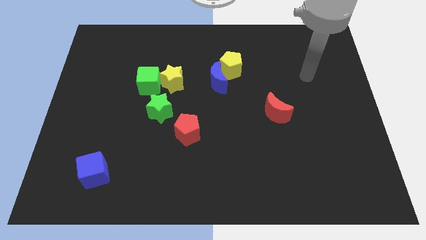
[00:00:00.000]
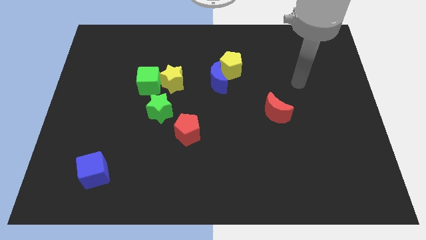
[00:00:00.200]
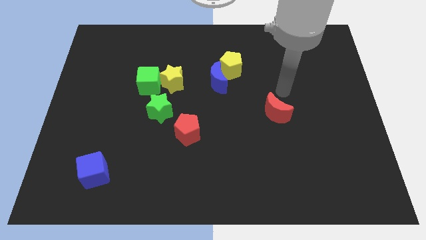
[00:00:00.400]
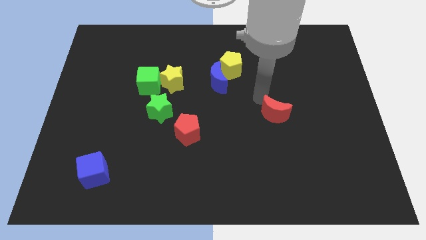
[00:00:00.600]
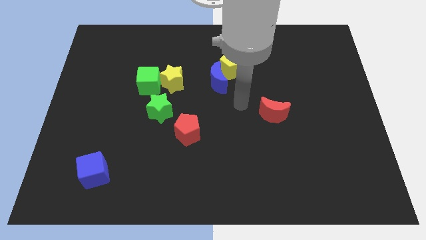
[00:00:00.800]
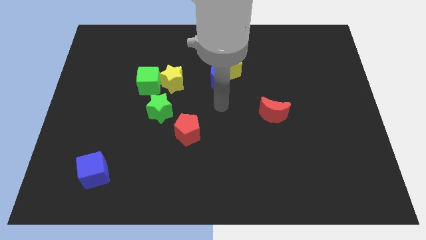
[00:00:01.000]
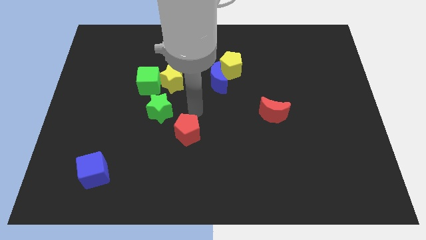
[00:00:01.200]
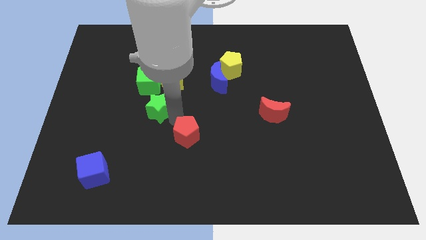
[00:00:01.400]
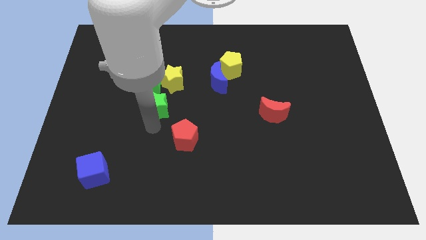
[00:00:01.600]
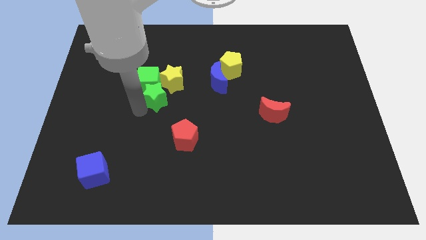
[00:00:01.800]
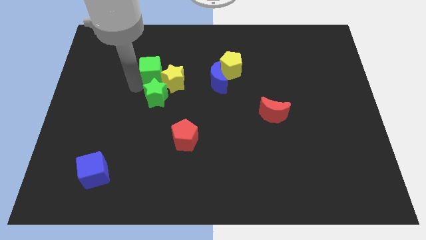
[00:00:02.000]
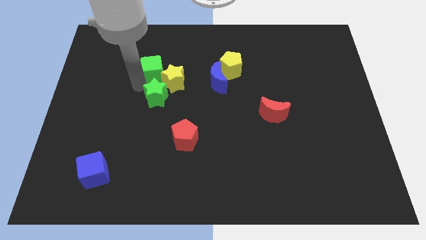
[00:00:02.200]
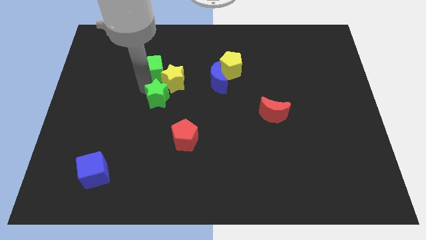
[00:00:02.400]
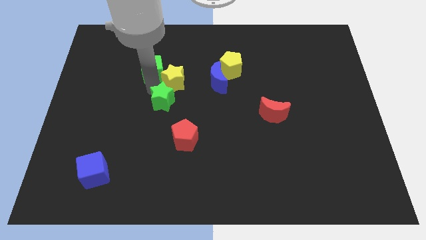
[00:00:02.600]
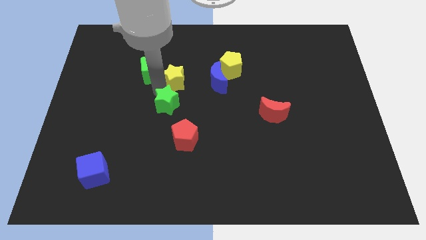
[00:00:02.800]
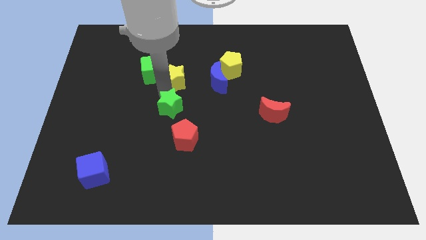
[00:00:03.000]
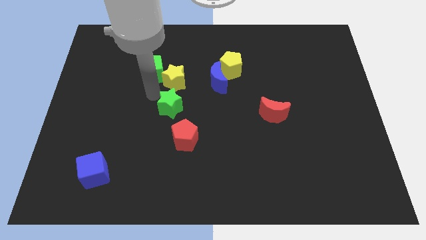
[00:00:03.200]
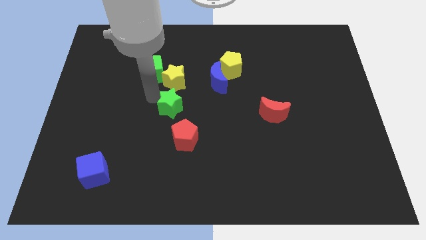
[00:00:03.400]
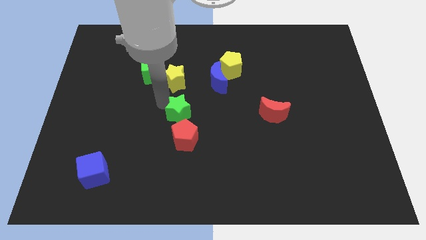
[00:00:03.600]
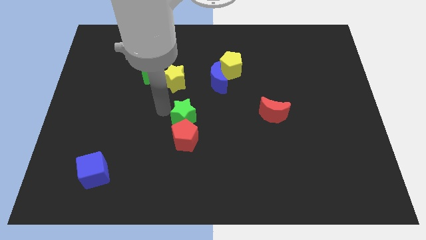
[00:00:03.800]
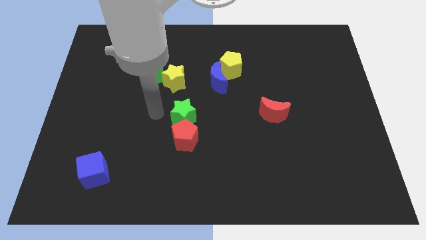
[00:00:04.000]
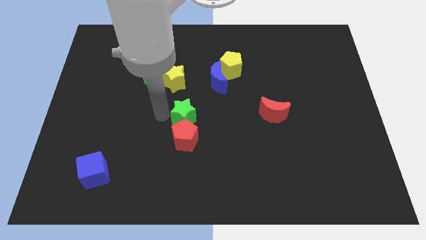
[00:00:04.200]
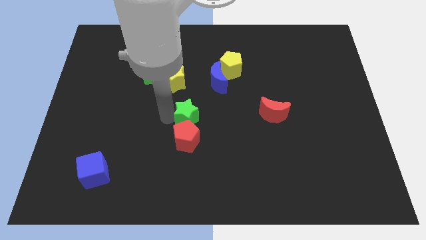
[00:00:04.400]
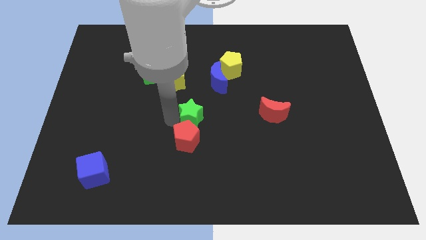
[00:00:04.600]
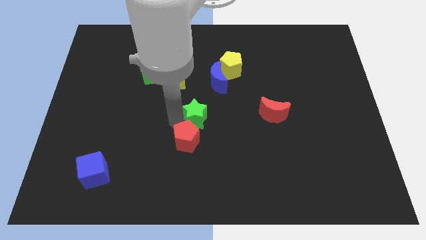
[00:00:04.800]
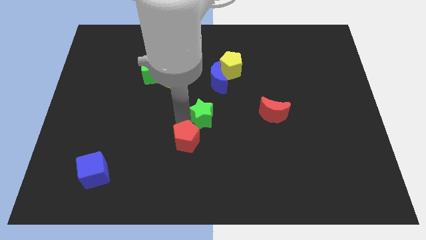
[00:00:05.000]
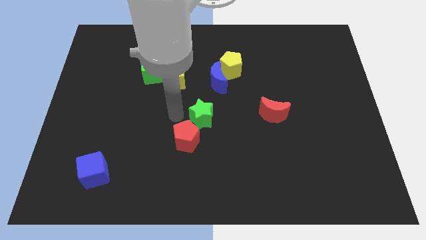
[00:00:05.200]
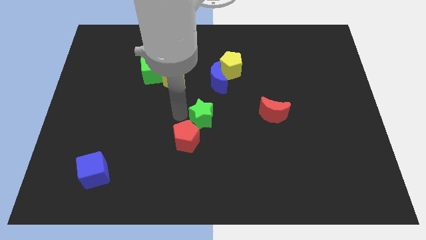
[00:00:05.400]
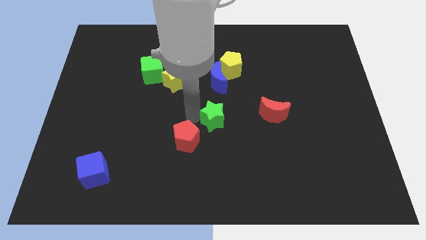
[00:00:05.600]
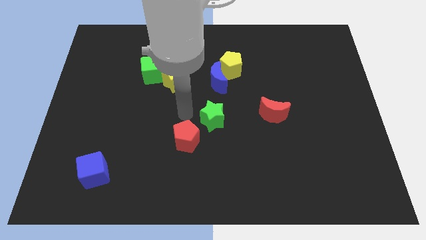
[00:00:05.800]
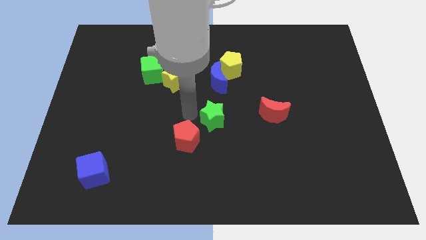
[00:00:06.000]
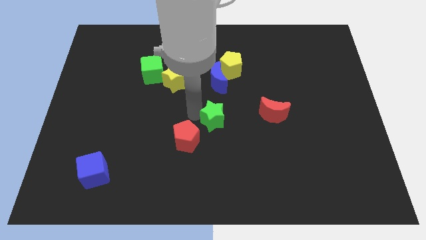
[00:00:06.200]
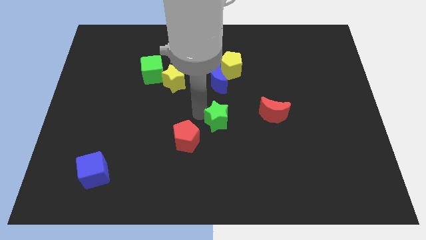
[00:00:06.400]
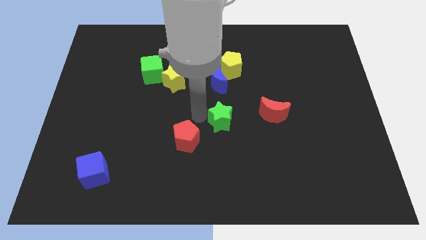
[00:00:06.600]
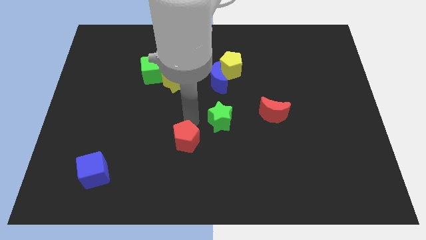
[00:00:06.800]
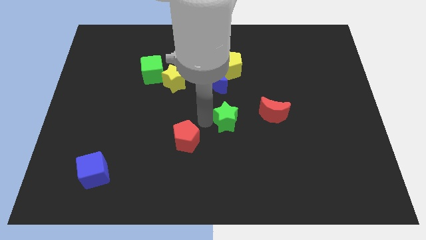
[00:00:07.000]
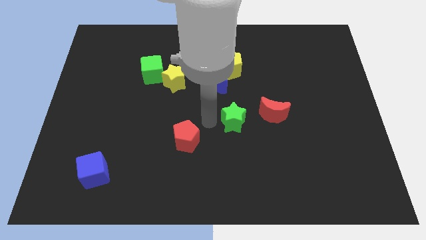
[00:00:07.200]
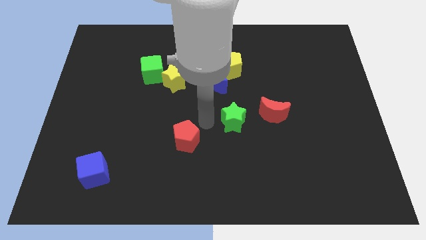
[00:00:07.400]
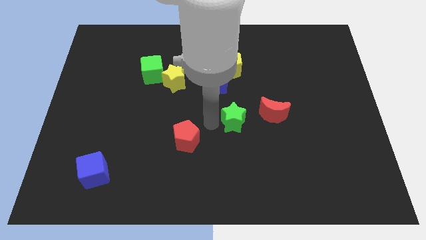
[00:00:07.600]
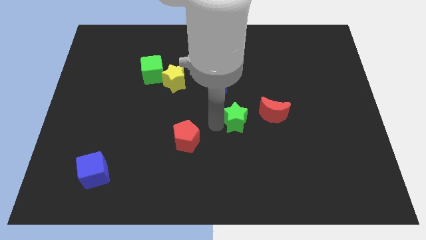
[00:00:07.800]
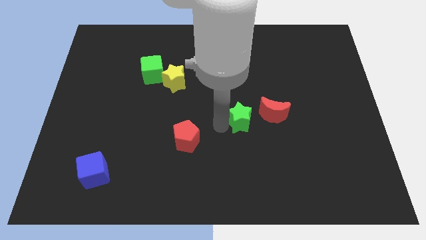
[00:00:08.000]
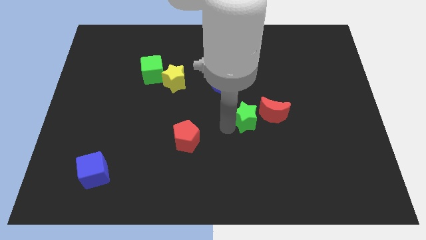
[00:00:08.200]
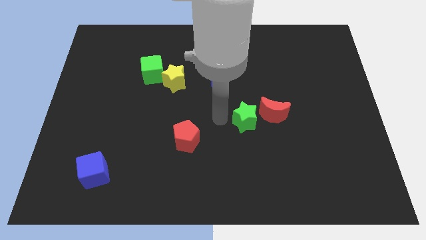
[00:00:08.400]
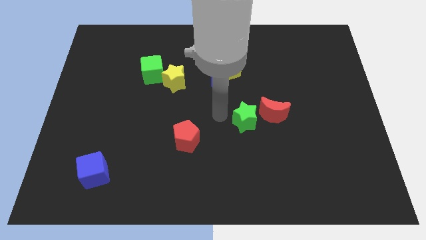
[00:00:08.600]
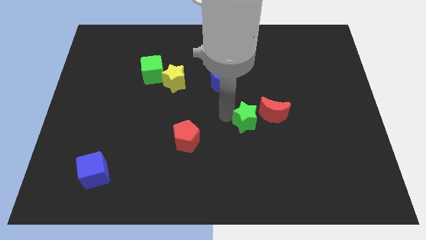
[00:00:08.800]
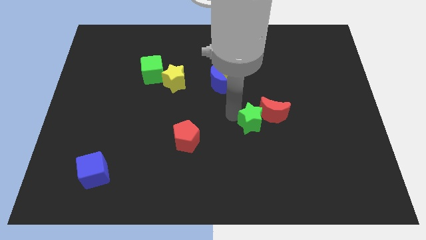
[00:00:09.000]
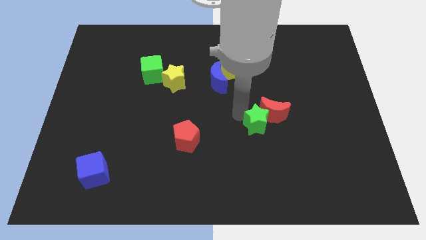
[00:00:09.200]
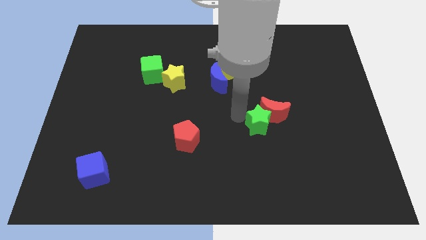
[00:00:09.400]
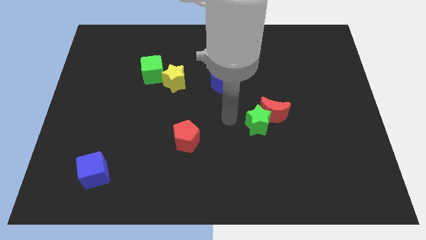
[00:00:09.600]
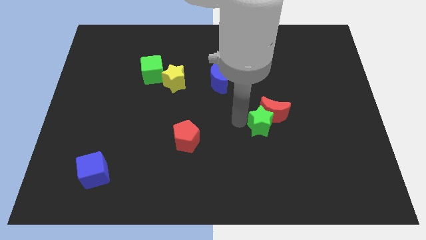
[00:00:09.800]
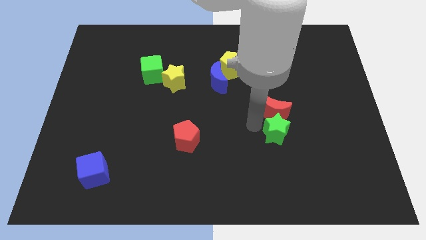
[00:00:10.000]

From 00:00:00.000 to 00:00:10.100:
push the green star to the bottom right of the red moon

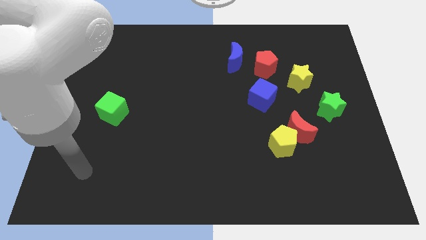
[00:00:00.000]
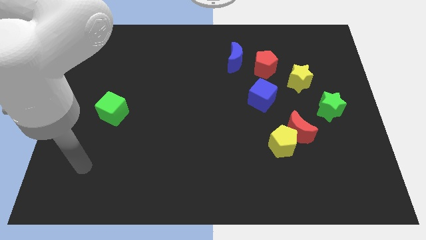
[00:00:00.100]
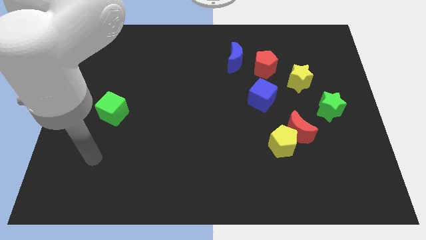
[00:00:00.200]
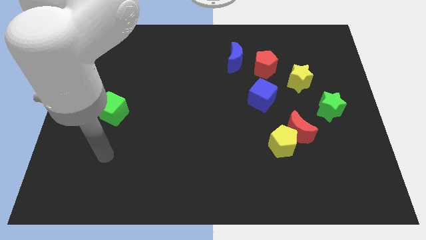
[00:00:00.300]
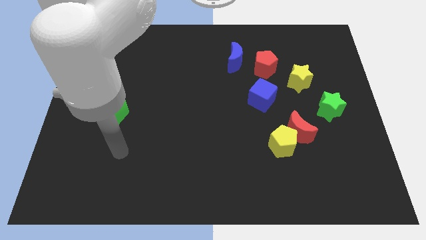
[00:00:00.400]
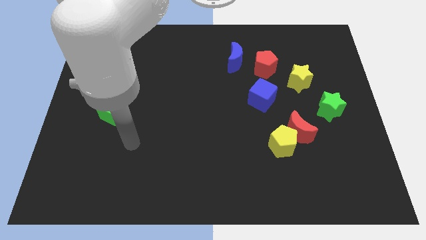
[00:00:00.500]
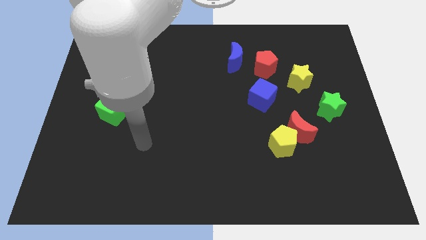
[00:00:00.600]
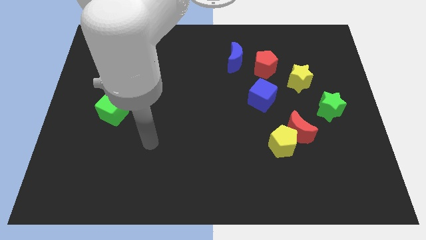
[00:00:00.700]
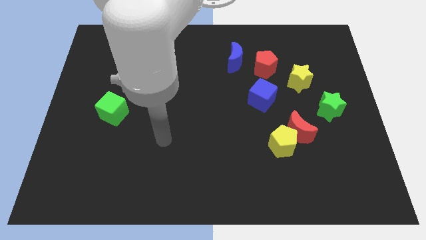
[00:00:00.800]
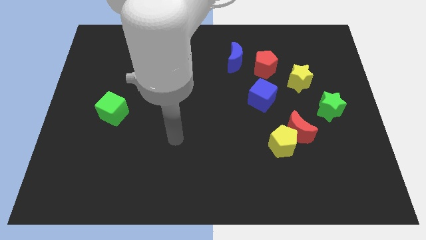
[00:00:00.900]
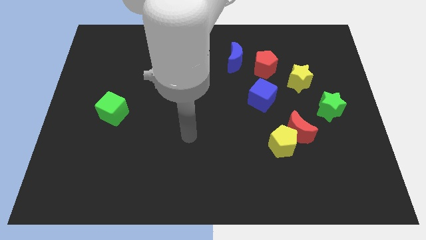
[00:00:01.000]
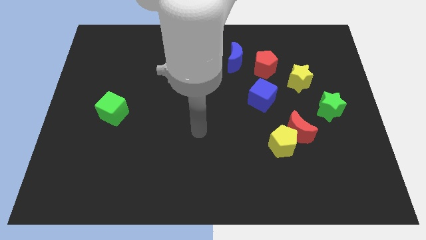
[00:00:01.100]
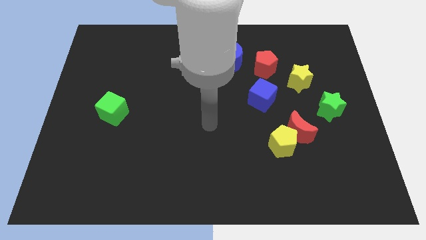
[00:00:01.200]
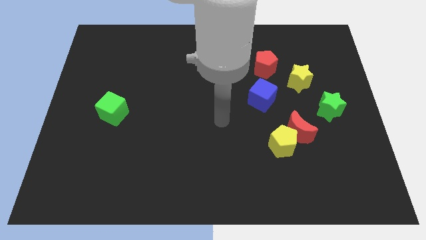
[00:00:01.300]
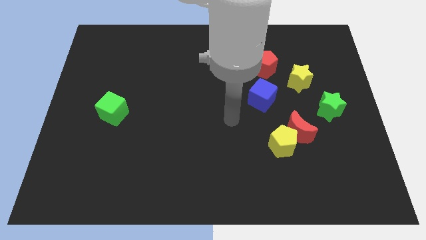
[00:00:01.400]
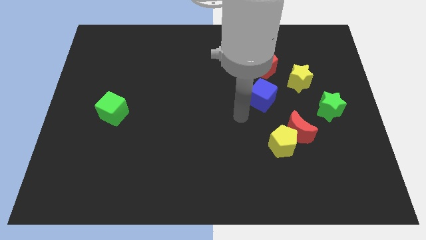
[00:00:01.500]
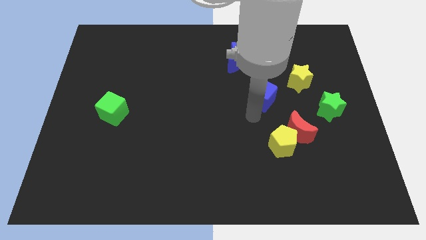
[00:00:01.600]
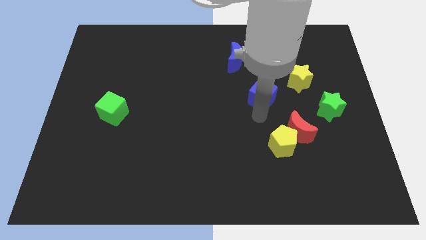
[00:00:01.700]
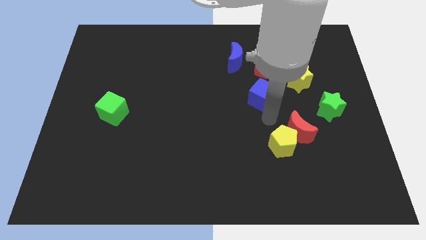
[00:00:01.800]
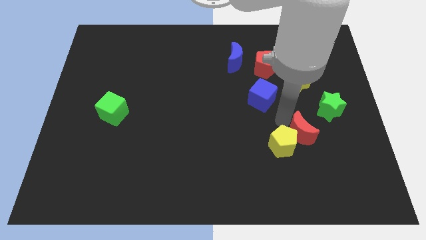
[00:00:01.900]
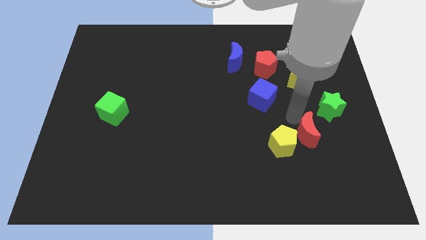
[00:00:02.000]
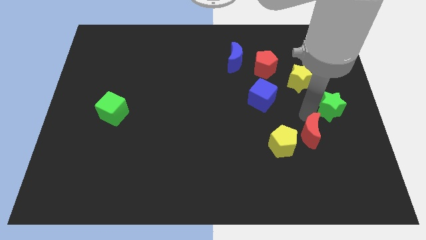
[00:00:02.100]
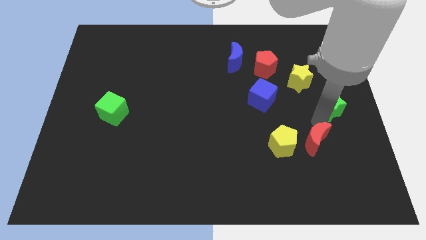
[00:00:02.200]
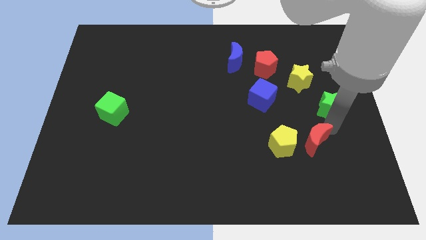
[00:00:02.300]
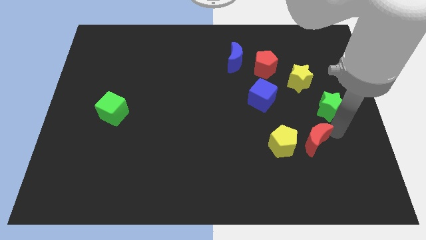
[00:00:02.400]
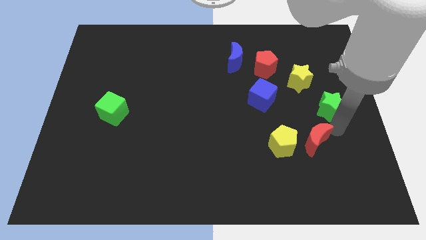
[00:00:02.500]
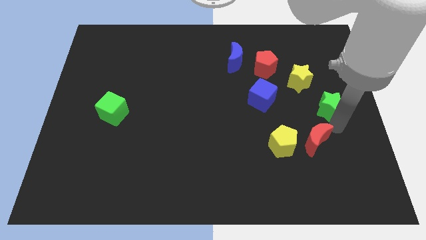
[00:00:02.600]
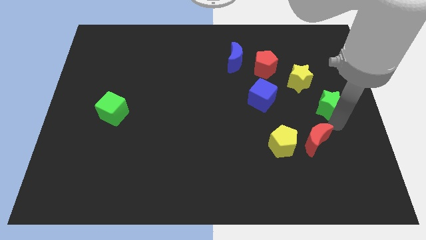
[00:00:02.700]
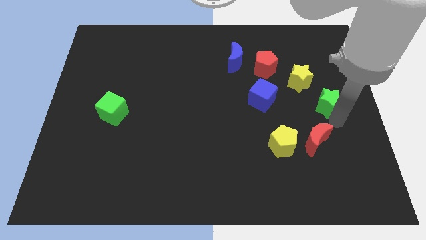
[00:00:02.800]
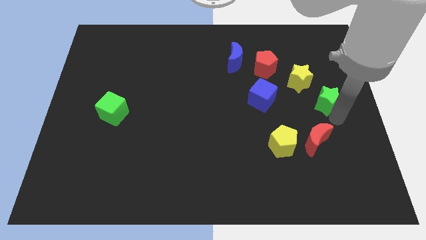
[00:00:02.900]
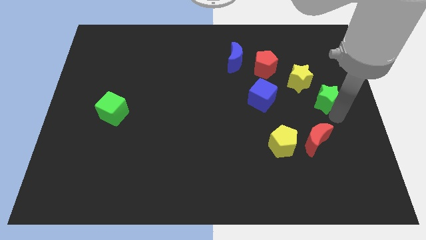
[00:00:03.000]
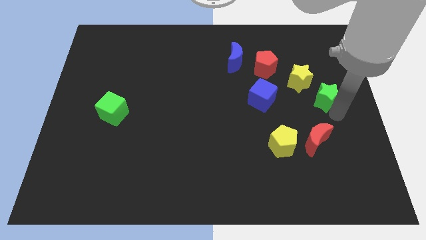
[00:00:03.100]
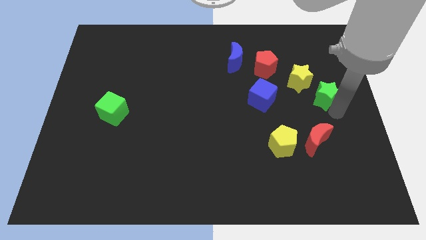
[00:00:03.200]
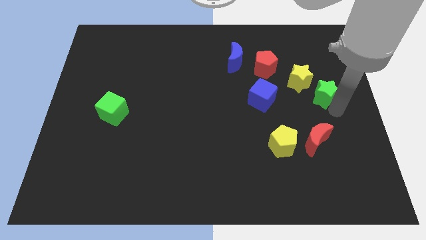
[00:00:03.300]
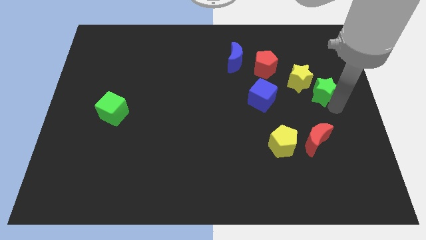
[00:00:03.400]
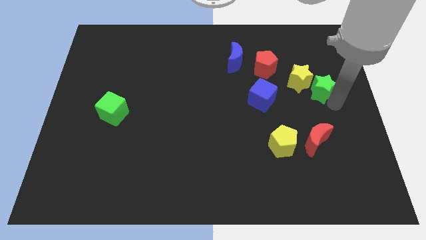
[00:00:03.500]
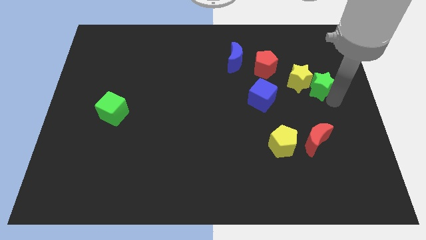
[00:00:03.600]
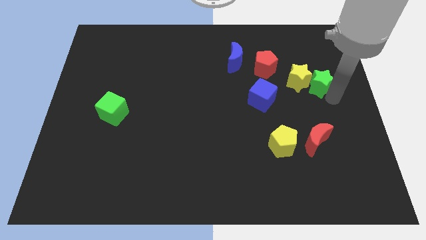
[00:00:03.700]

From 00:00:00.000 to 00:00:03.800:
push the green star diagonally up and to the right of the yellow star
